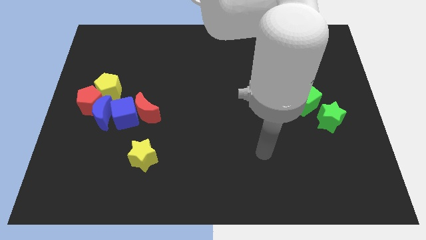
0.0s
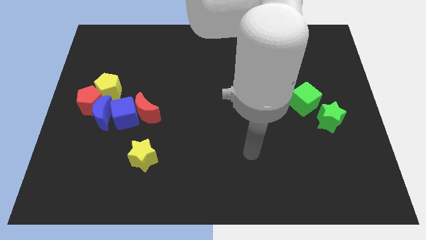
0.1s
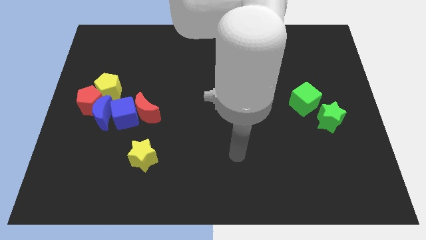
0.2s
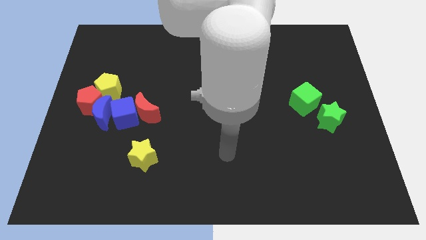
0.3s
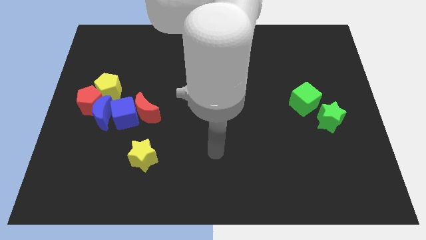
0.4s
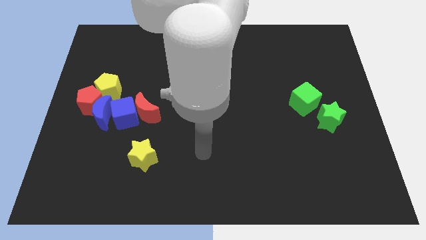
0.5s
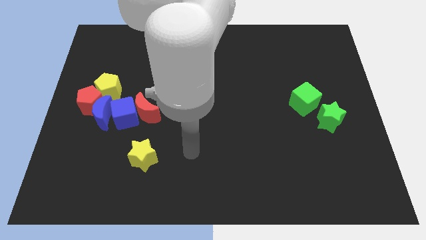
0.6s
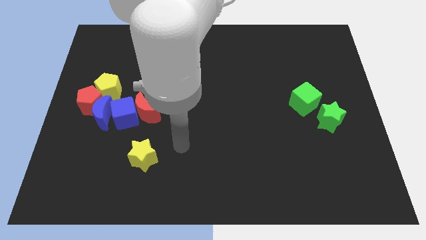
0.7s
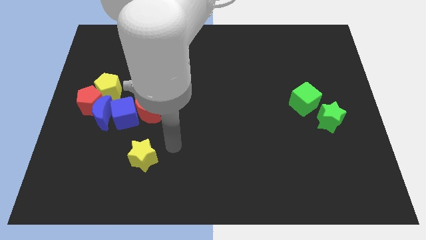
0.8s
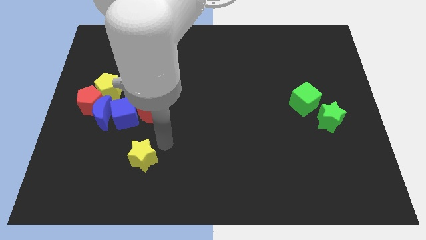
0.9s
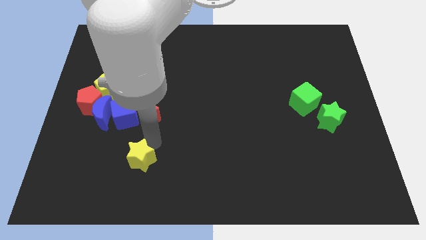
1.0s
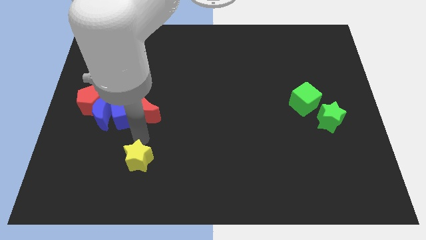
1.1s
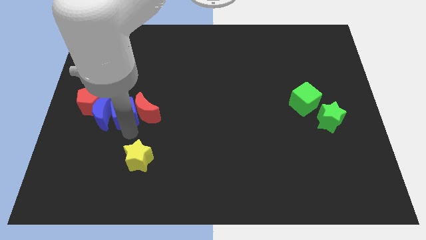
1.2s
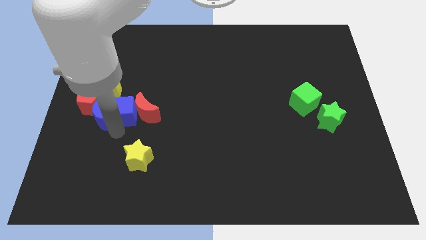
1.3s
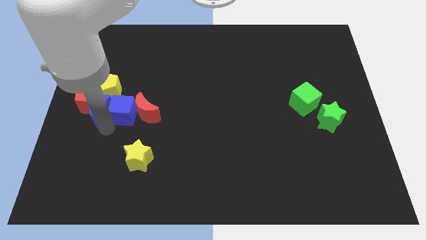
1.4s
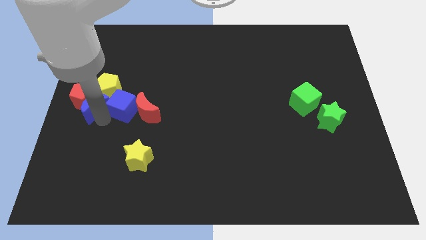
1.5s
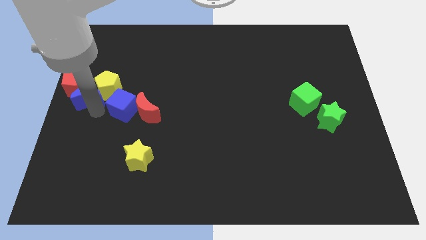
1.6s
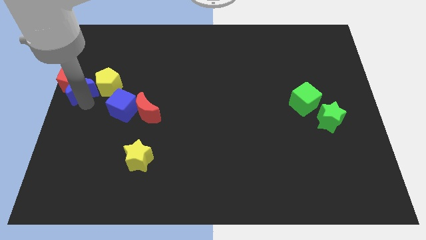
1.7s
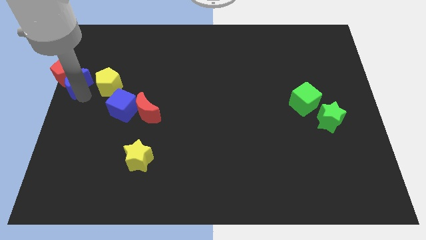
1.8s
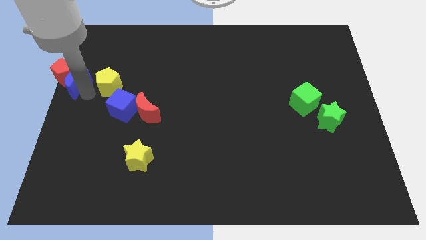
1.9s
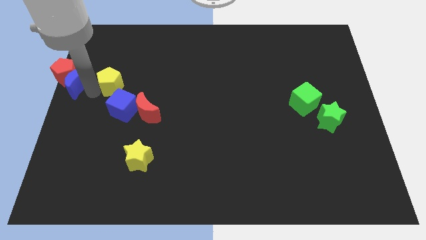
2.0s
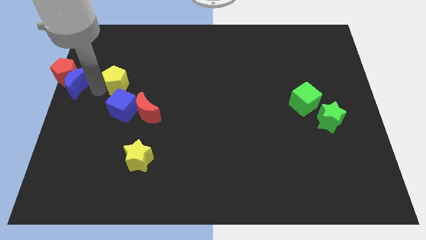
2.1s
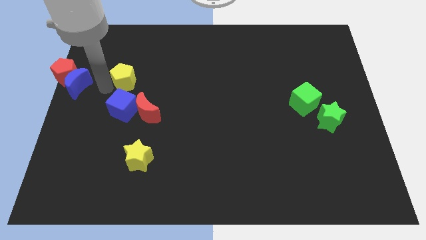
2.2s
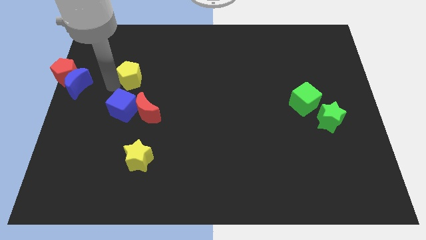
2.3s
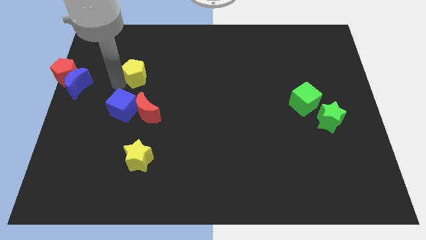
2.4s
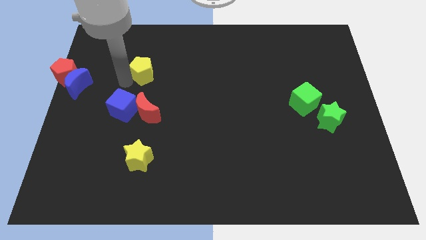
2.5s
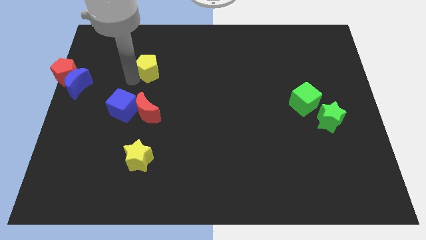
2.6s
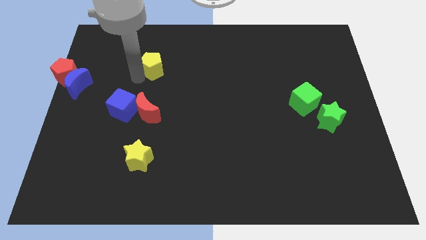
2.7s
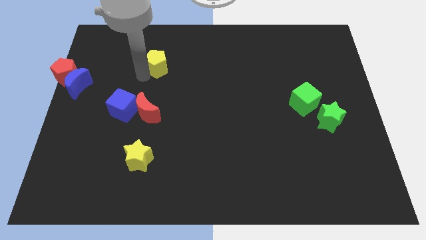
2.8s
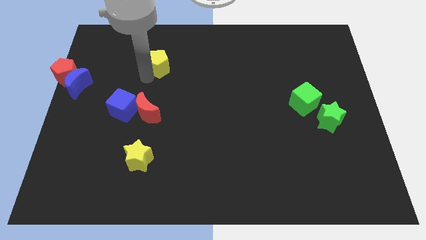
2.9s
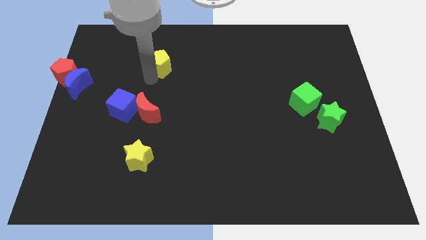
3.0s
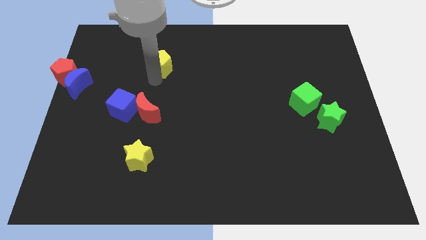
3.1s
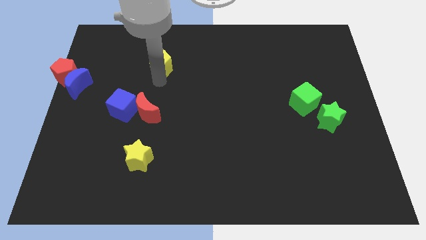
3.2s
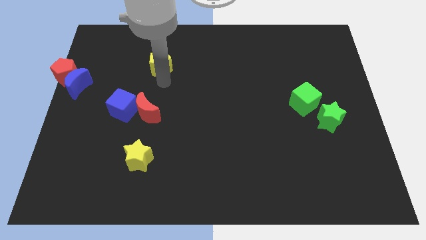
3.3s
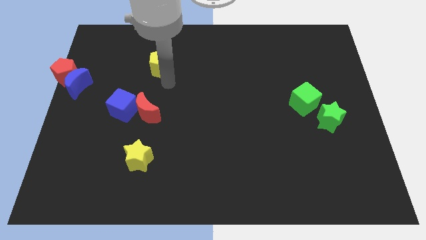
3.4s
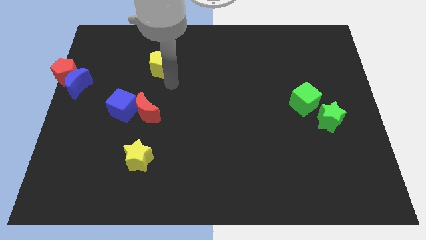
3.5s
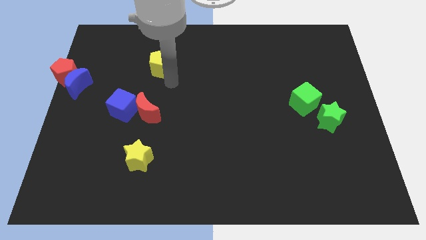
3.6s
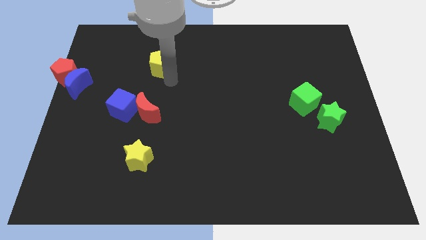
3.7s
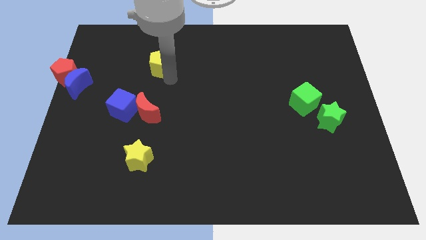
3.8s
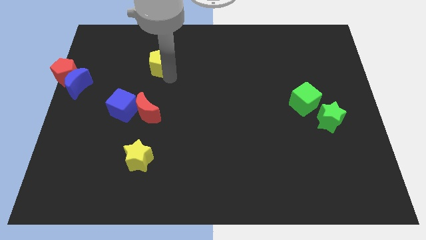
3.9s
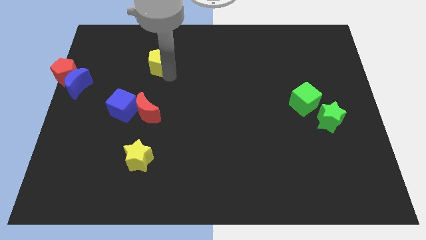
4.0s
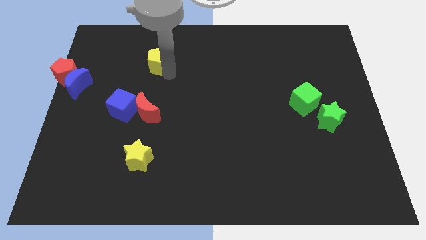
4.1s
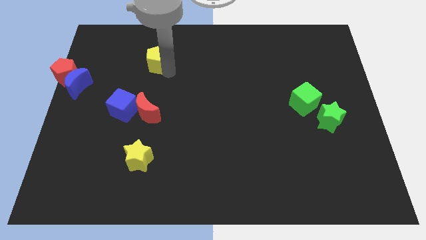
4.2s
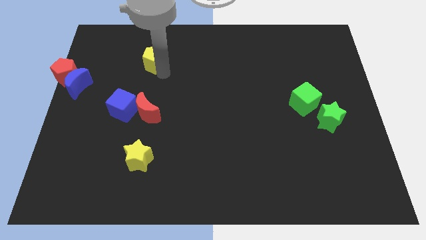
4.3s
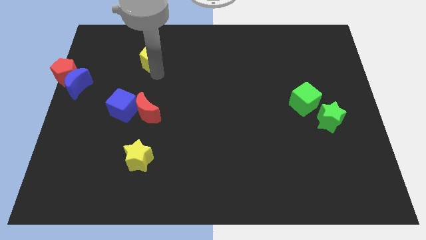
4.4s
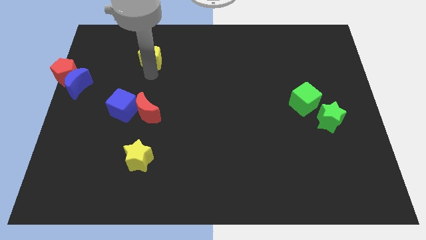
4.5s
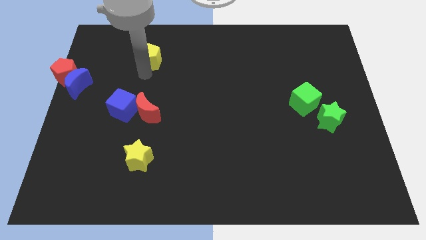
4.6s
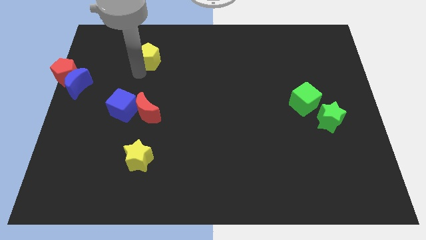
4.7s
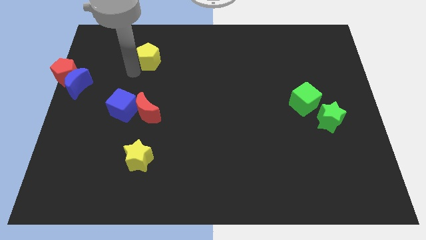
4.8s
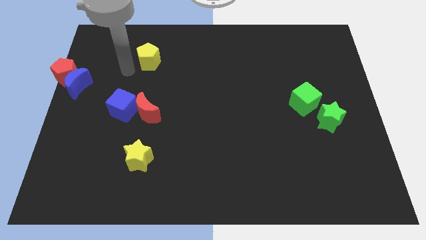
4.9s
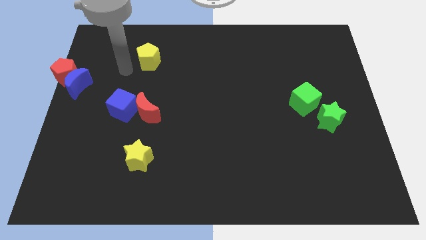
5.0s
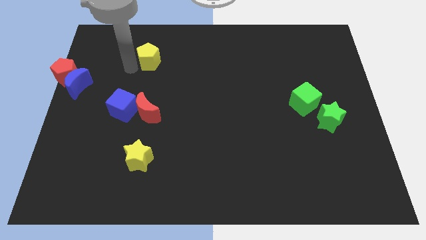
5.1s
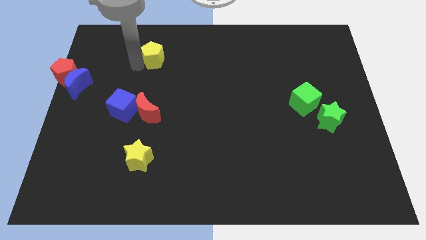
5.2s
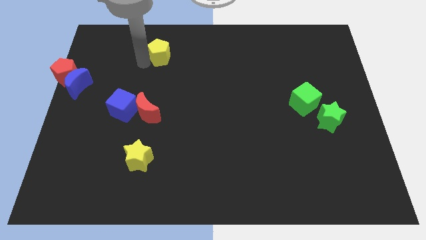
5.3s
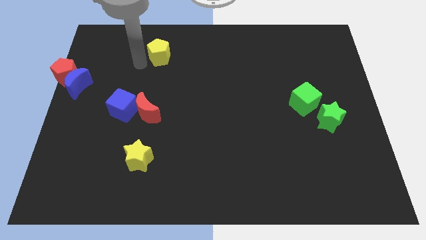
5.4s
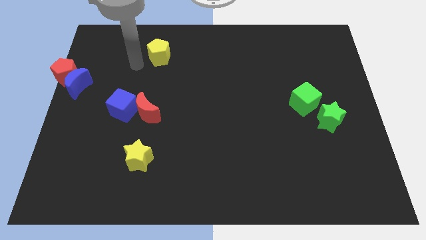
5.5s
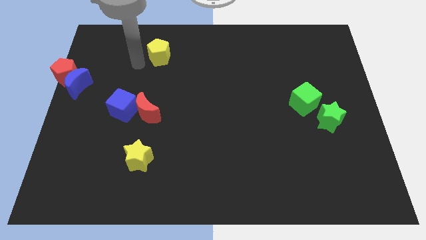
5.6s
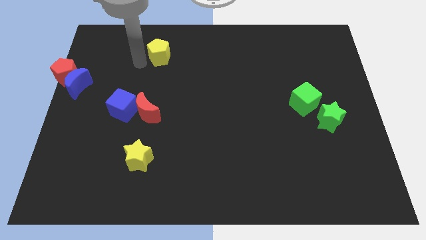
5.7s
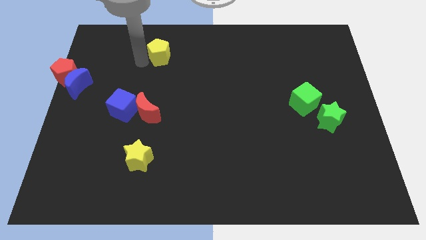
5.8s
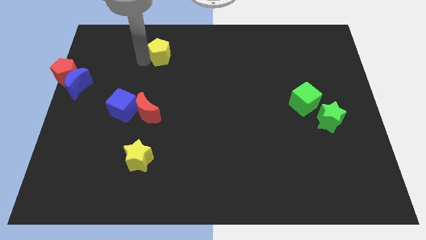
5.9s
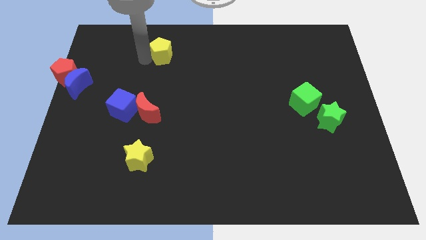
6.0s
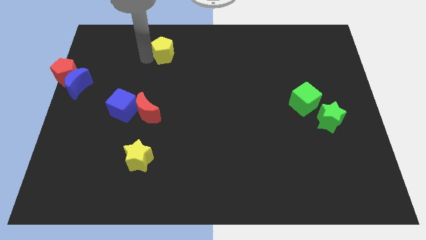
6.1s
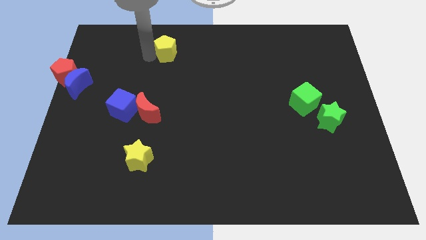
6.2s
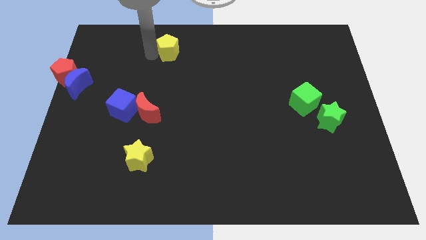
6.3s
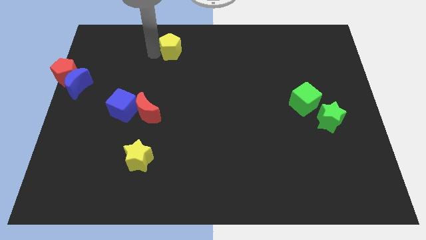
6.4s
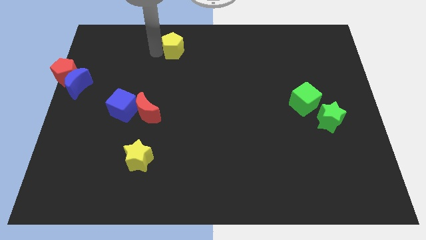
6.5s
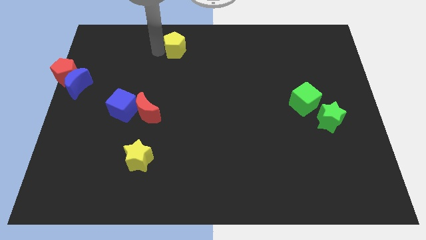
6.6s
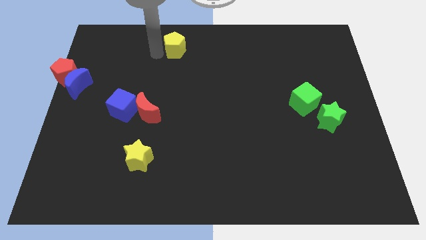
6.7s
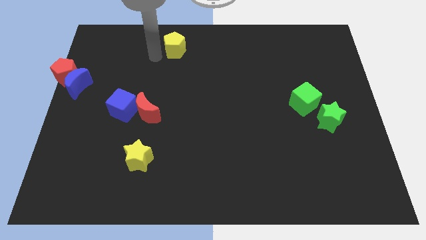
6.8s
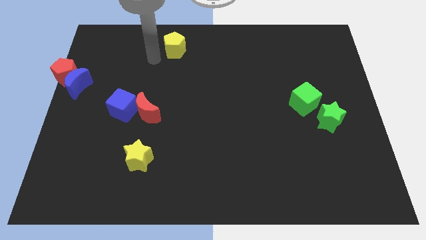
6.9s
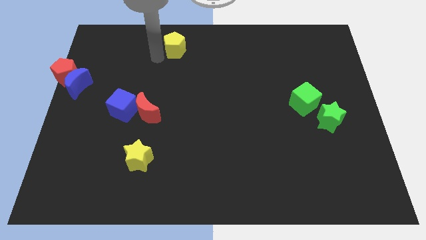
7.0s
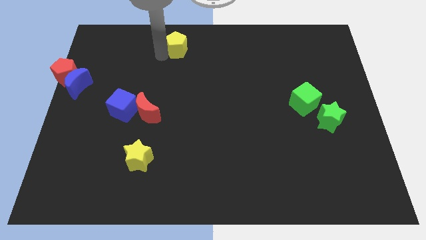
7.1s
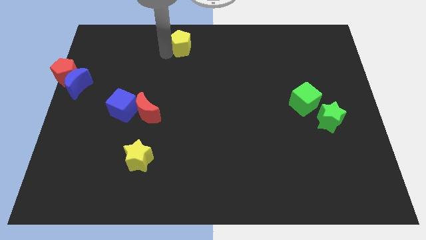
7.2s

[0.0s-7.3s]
move the yellow pentagon to the top
